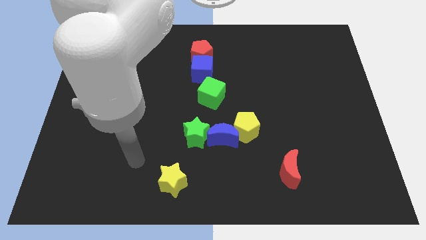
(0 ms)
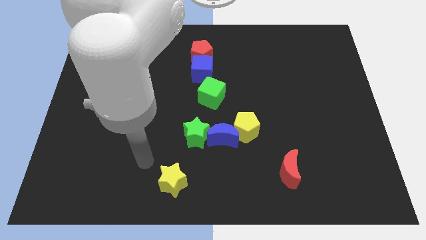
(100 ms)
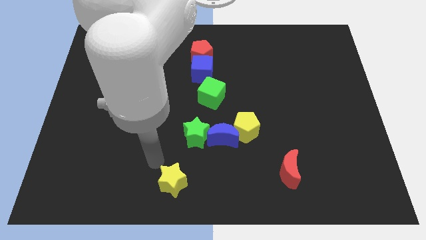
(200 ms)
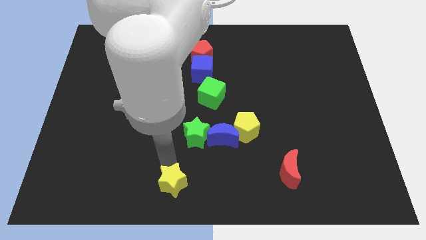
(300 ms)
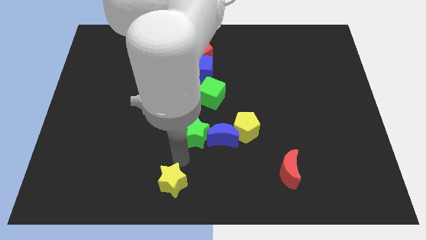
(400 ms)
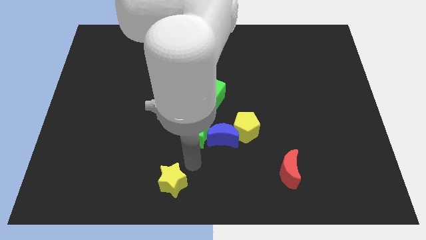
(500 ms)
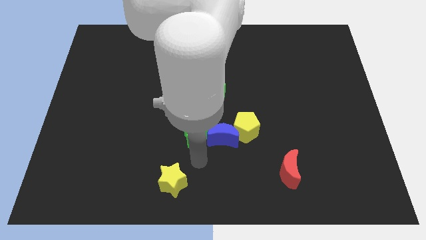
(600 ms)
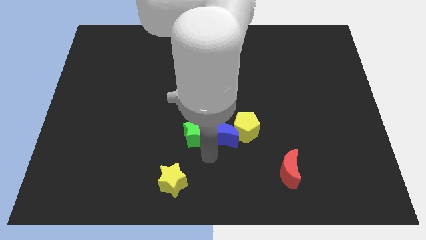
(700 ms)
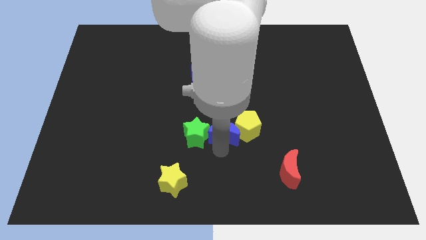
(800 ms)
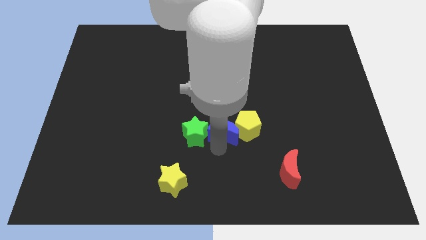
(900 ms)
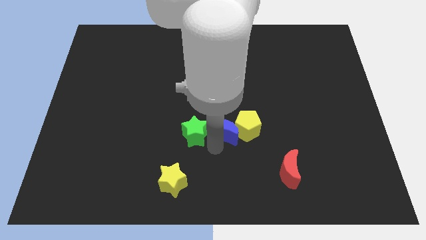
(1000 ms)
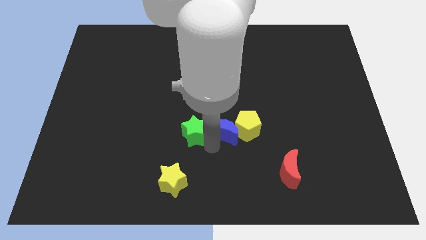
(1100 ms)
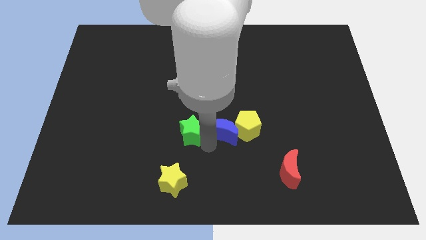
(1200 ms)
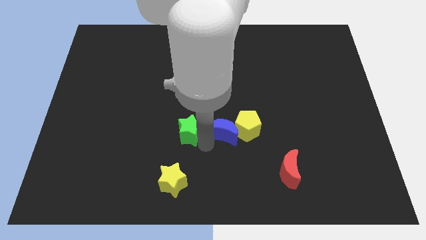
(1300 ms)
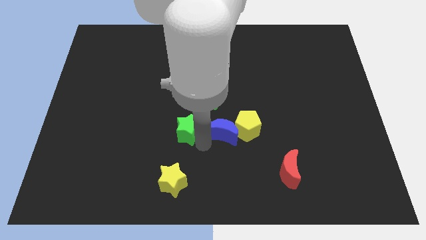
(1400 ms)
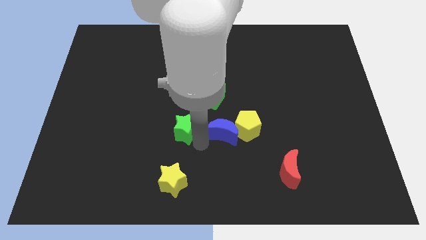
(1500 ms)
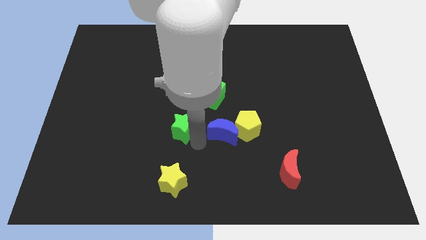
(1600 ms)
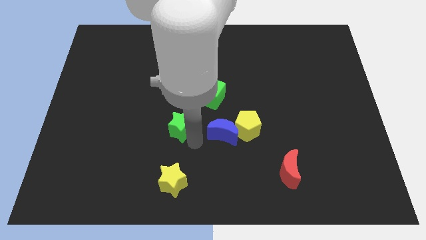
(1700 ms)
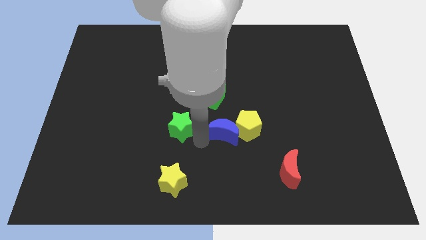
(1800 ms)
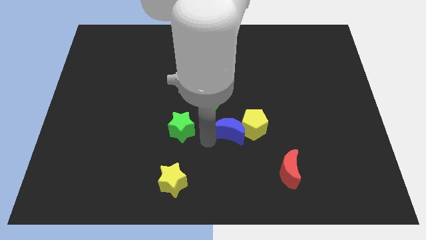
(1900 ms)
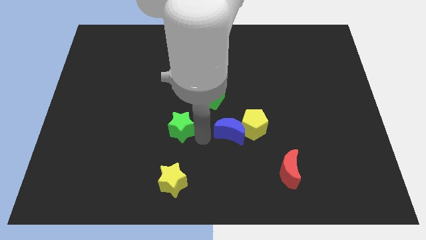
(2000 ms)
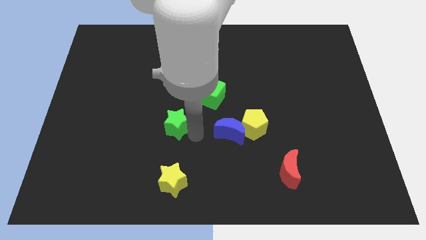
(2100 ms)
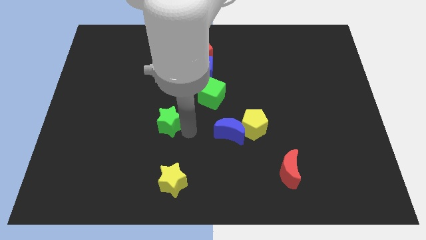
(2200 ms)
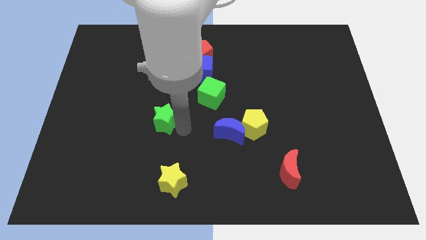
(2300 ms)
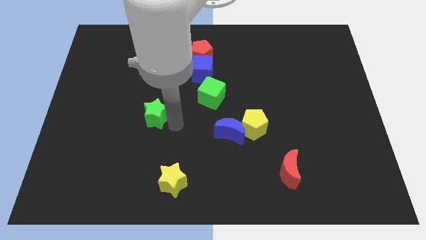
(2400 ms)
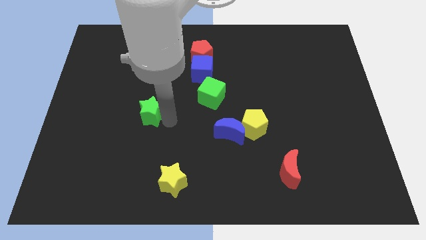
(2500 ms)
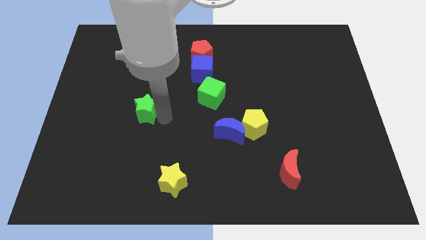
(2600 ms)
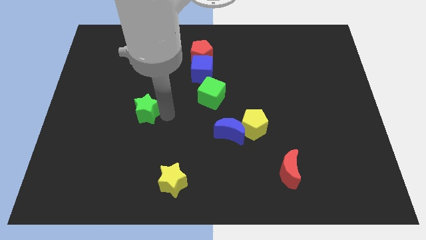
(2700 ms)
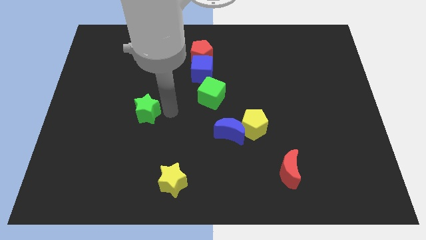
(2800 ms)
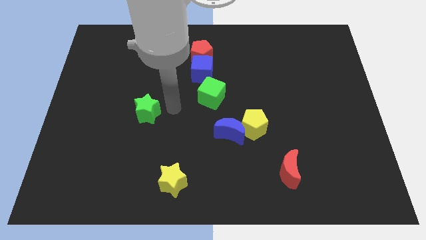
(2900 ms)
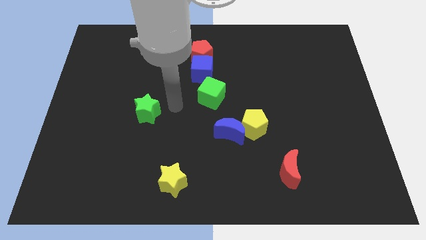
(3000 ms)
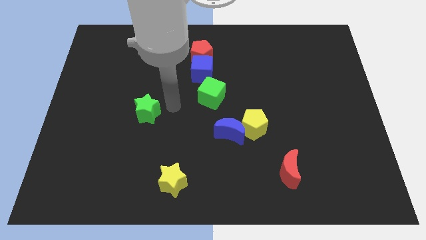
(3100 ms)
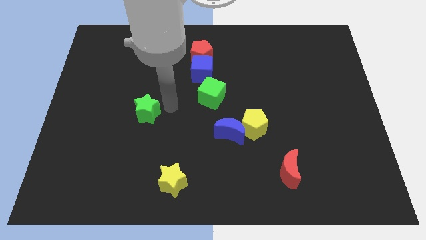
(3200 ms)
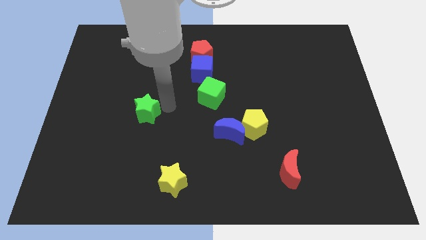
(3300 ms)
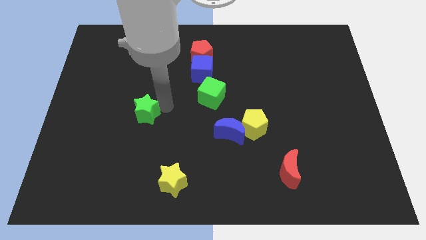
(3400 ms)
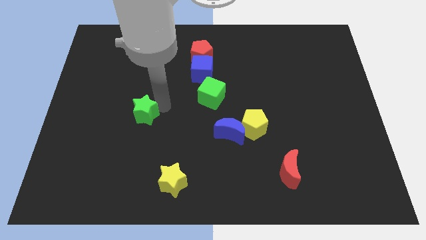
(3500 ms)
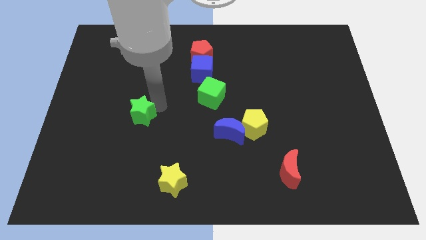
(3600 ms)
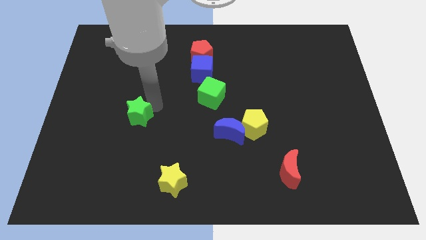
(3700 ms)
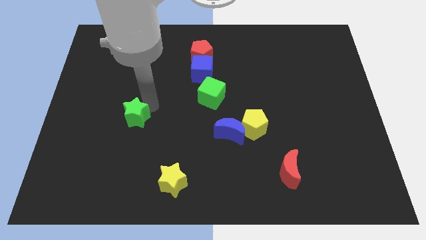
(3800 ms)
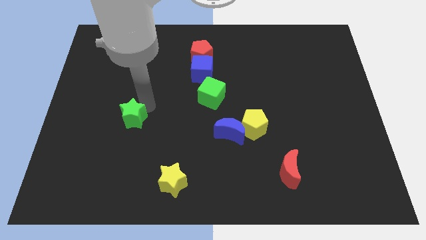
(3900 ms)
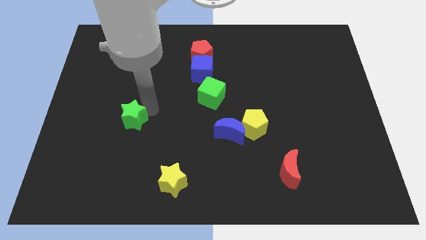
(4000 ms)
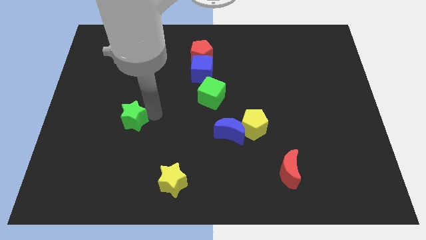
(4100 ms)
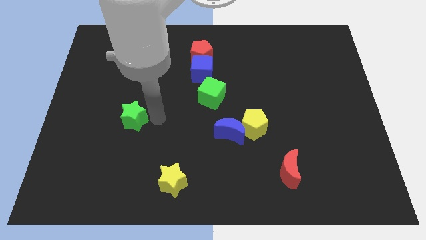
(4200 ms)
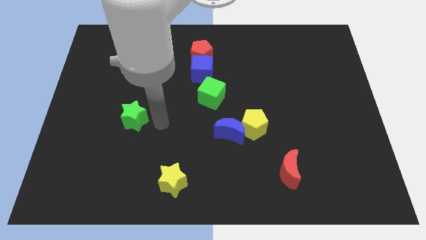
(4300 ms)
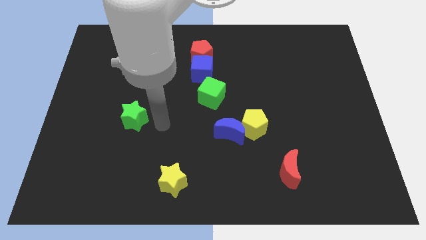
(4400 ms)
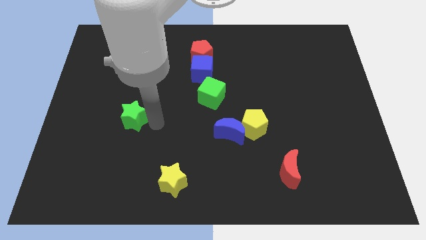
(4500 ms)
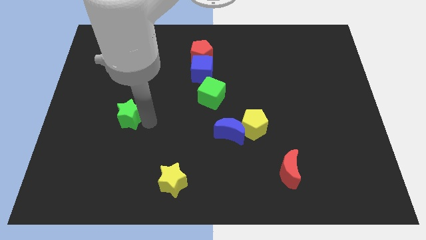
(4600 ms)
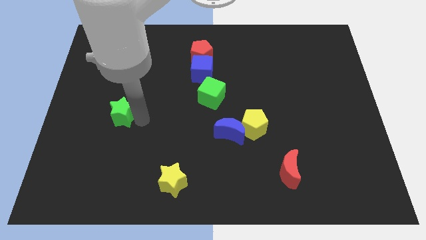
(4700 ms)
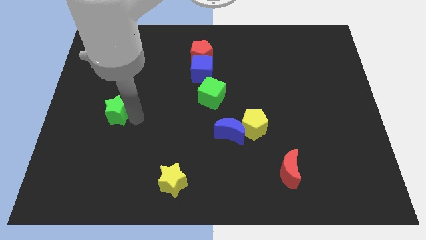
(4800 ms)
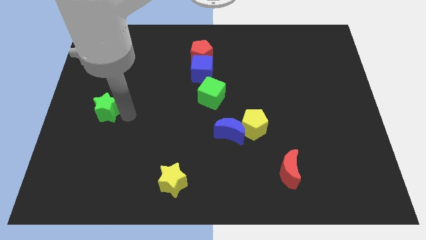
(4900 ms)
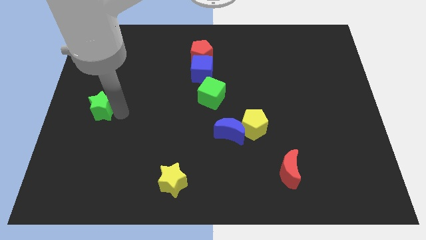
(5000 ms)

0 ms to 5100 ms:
push the green star to the center left

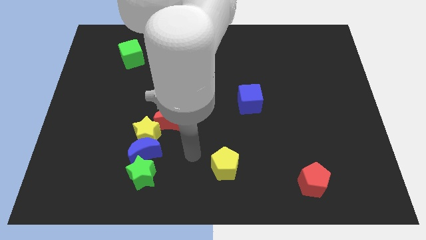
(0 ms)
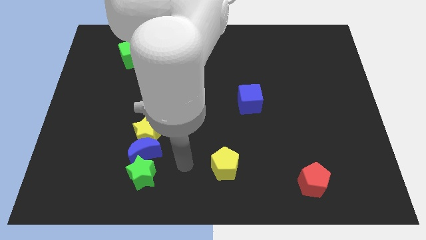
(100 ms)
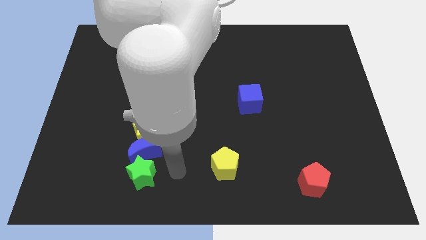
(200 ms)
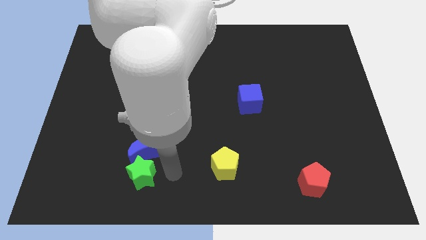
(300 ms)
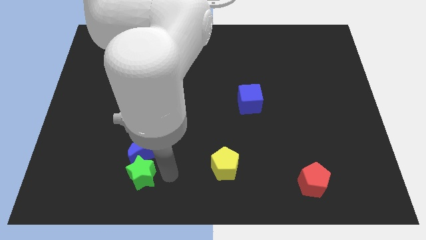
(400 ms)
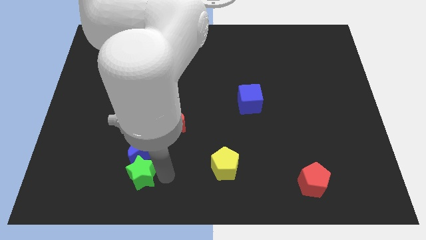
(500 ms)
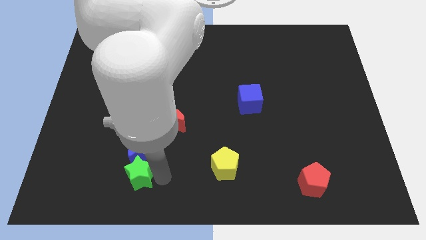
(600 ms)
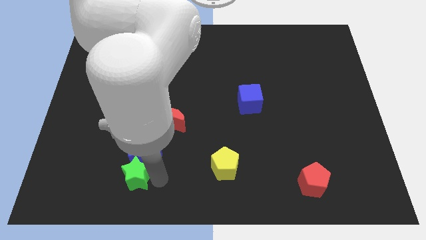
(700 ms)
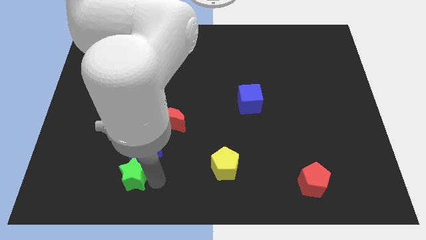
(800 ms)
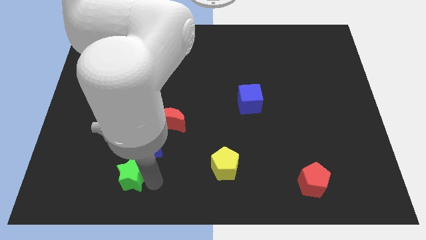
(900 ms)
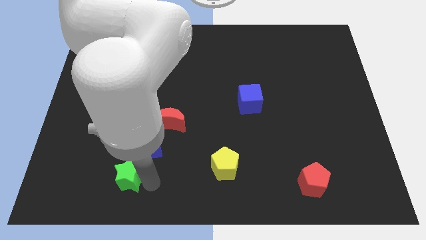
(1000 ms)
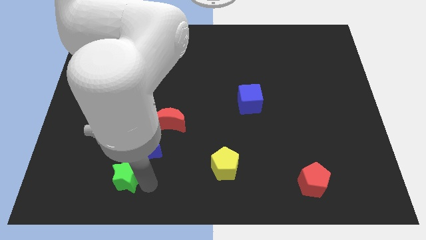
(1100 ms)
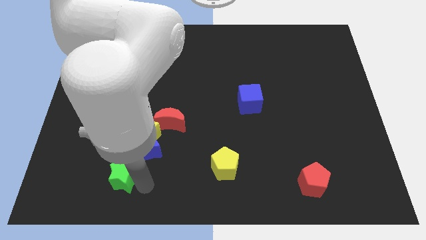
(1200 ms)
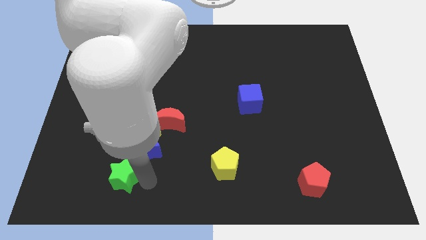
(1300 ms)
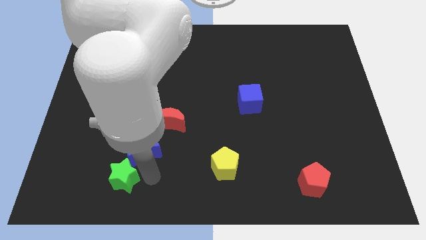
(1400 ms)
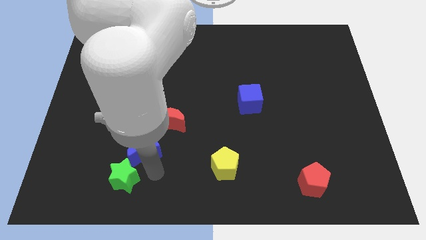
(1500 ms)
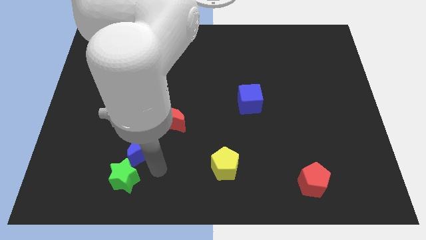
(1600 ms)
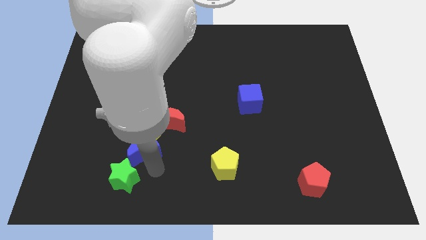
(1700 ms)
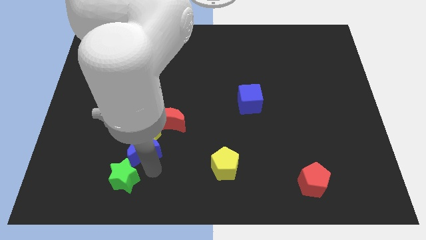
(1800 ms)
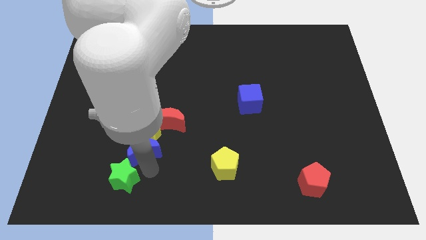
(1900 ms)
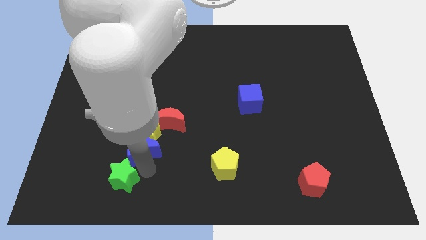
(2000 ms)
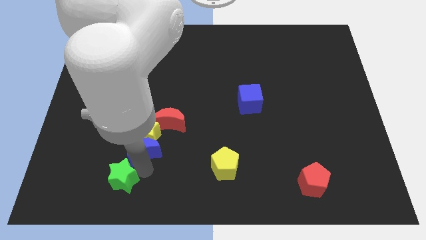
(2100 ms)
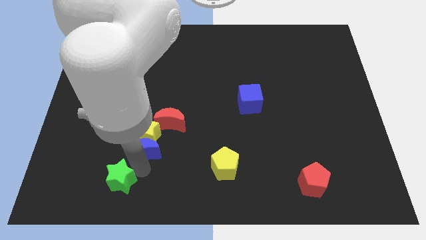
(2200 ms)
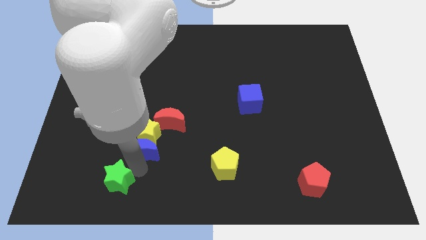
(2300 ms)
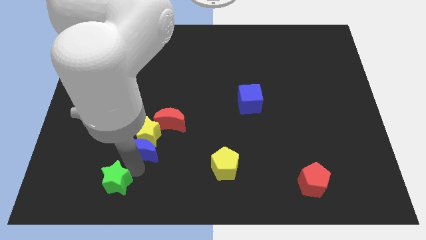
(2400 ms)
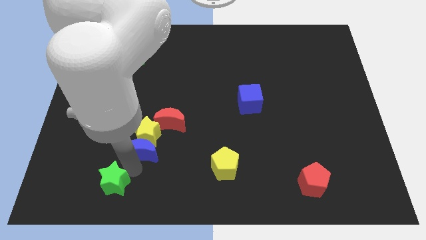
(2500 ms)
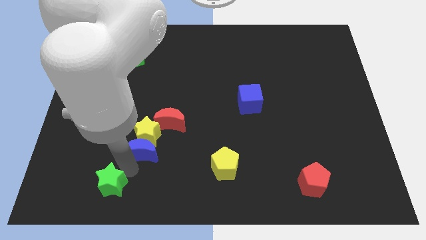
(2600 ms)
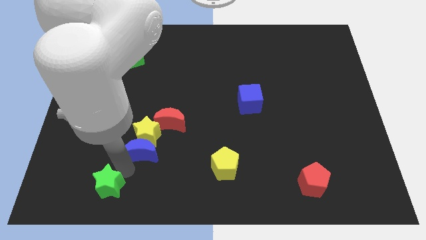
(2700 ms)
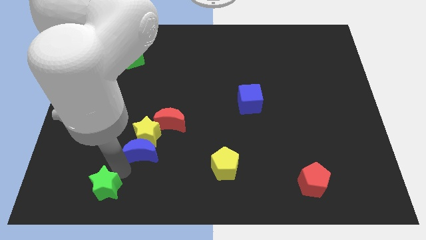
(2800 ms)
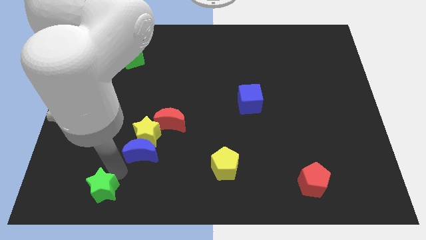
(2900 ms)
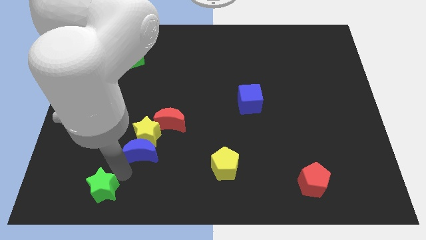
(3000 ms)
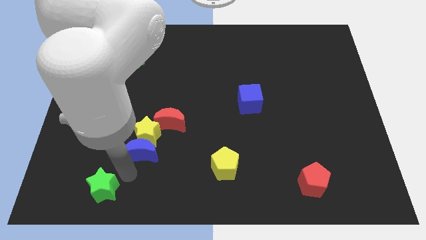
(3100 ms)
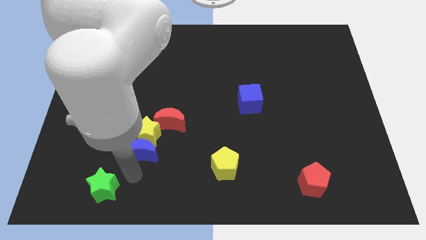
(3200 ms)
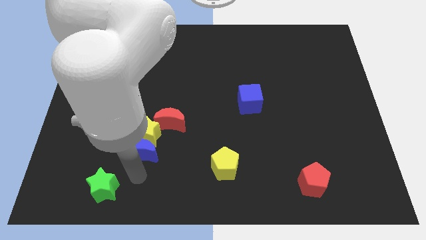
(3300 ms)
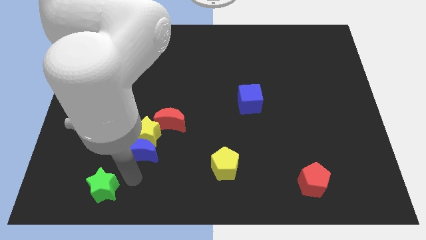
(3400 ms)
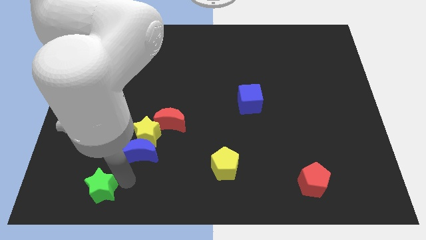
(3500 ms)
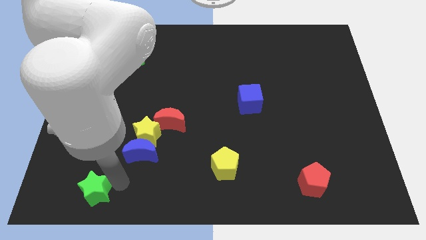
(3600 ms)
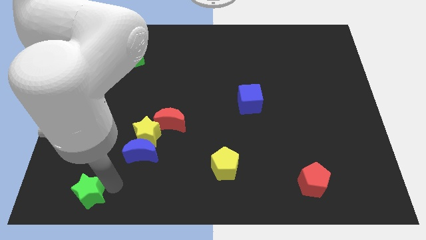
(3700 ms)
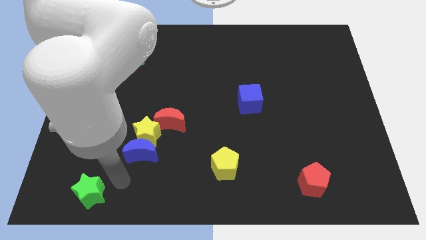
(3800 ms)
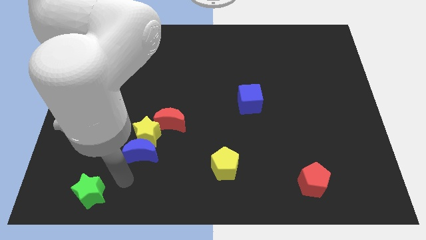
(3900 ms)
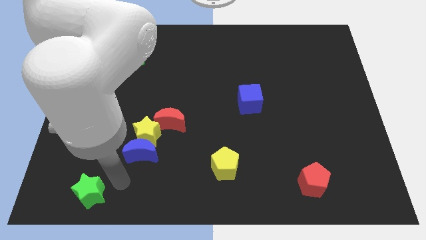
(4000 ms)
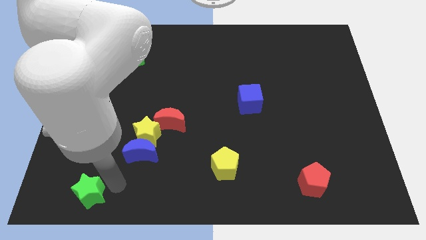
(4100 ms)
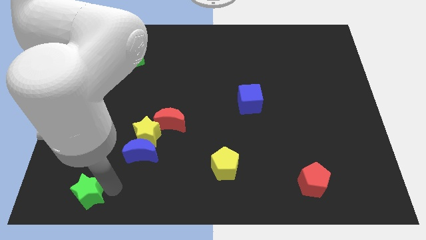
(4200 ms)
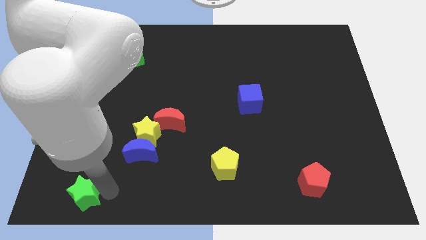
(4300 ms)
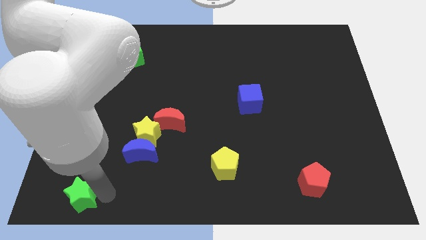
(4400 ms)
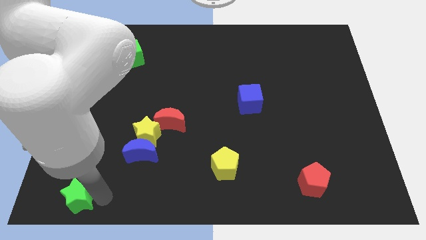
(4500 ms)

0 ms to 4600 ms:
put the green star to the lower left corner
